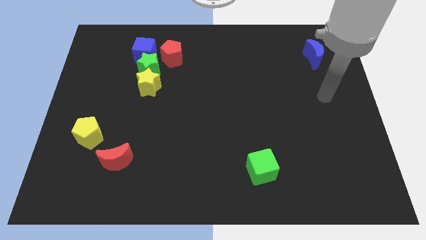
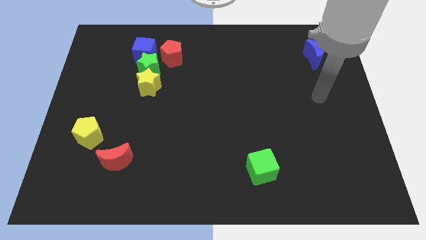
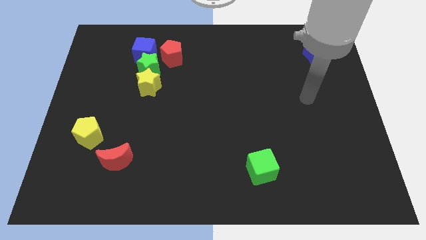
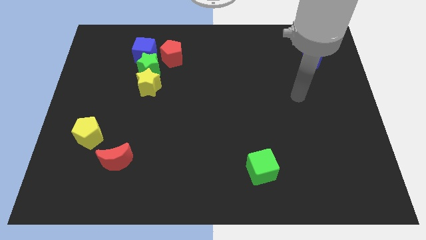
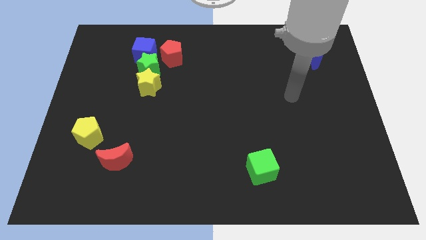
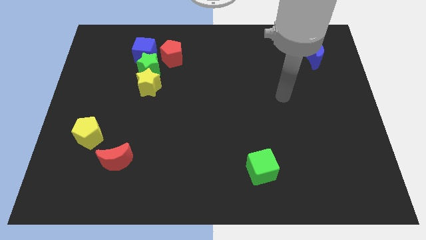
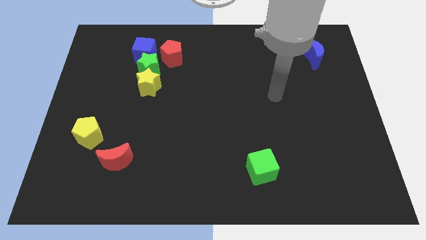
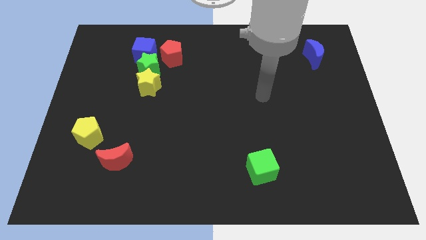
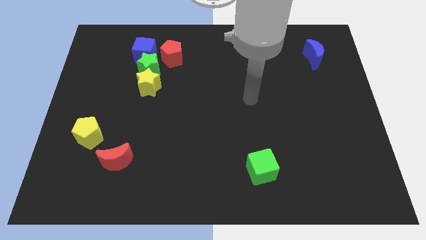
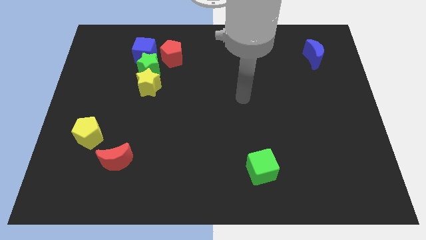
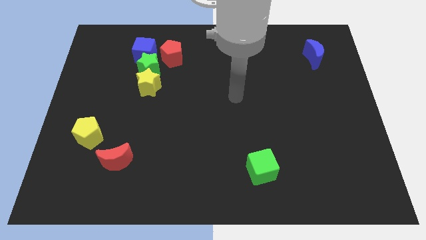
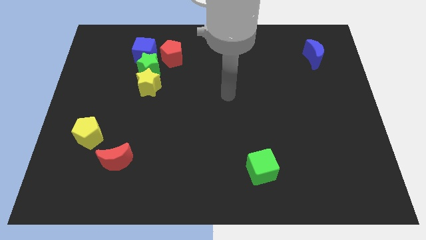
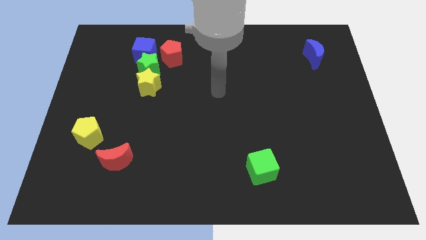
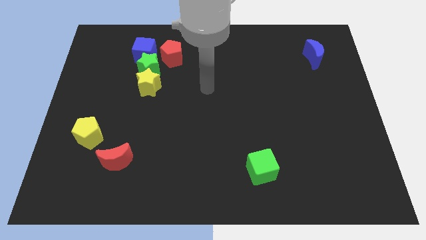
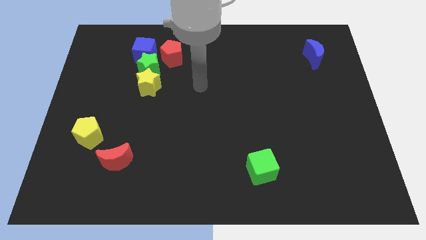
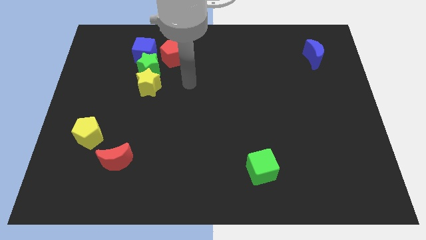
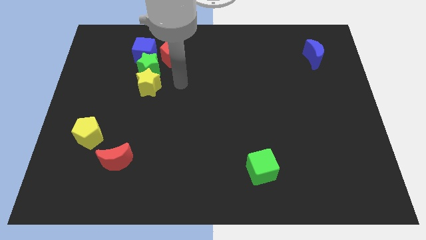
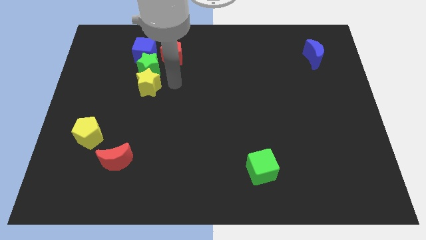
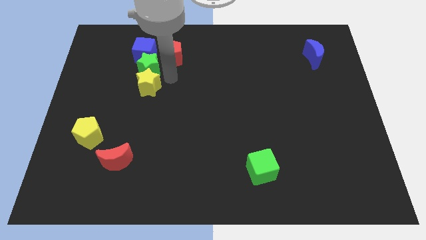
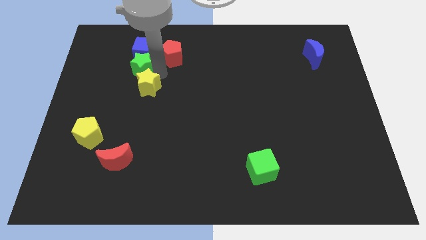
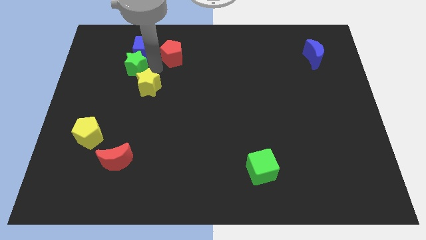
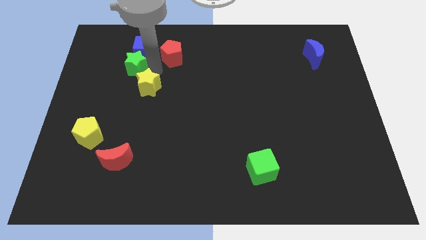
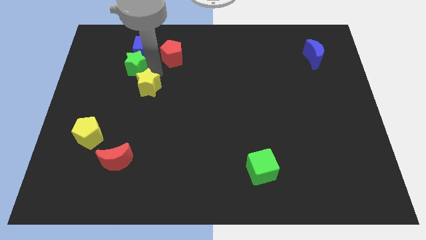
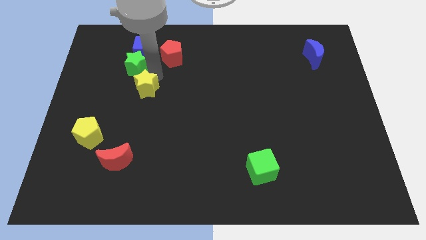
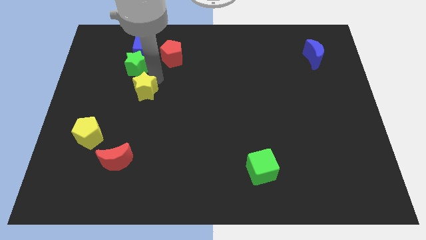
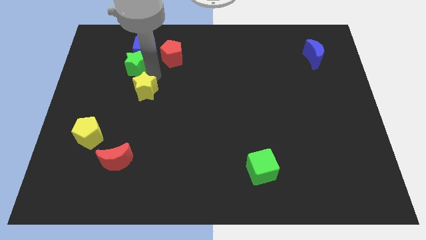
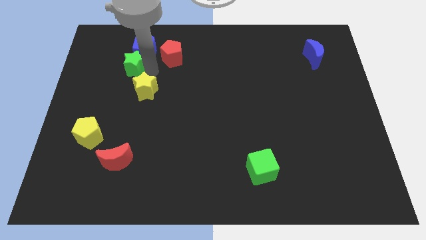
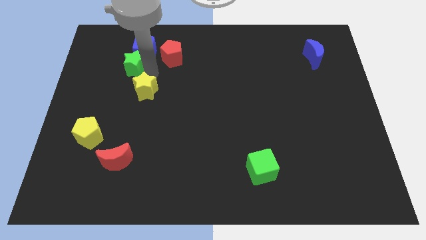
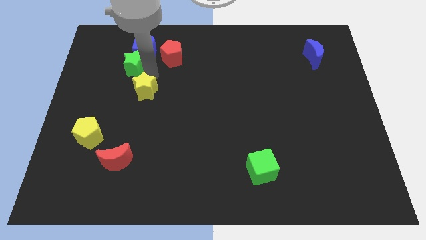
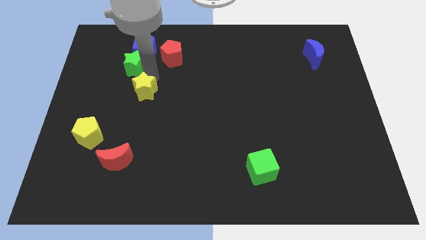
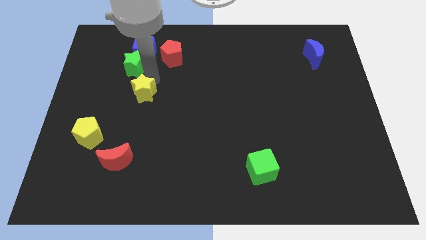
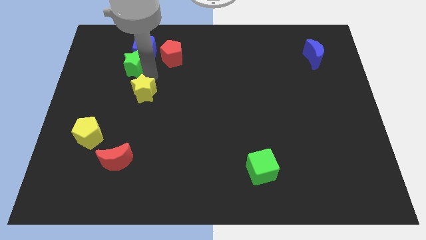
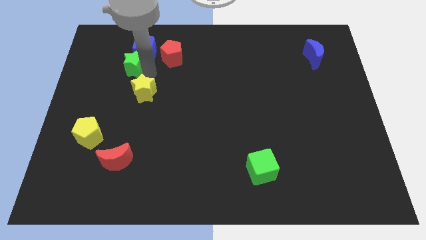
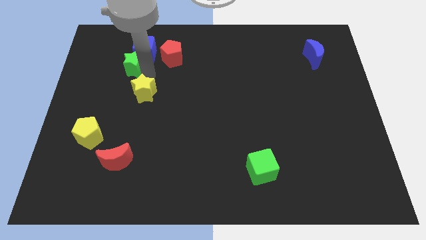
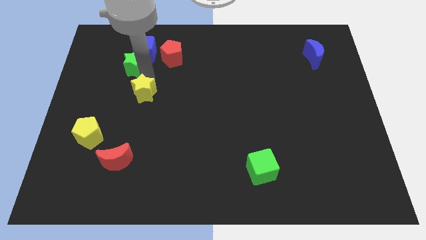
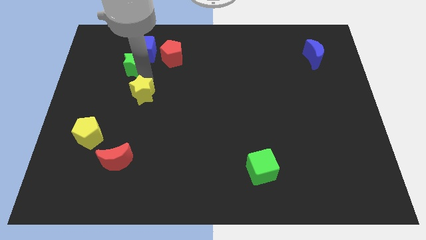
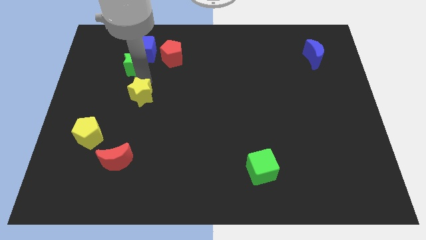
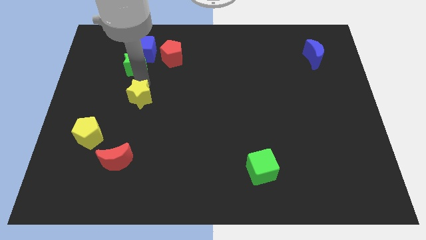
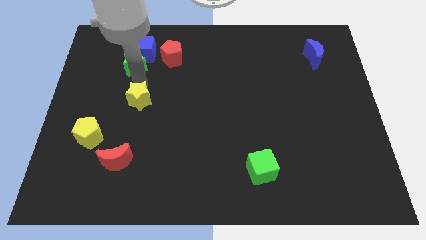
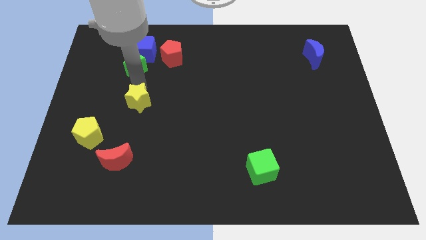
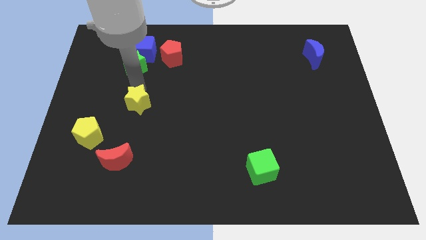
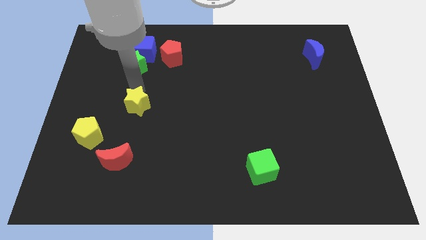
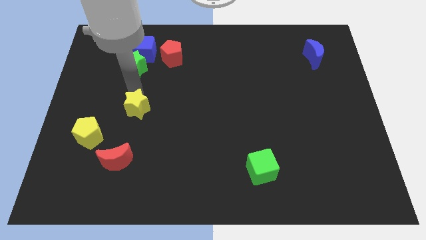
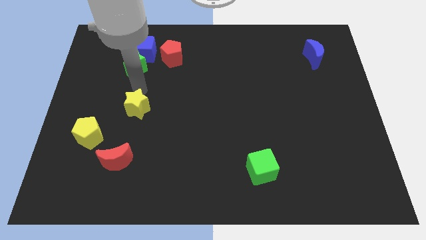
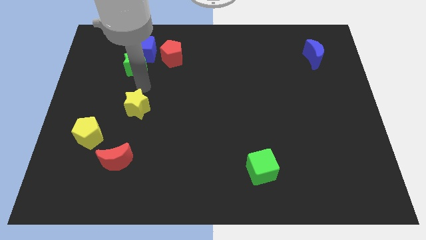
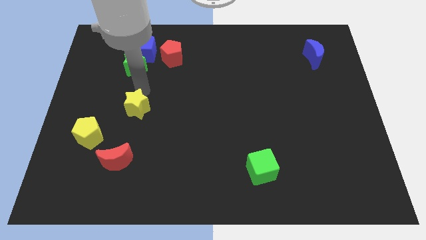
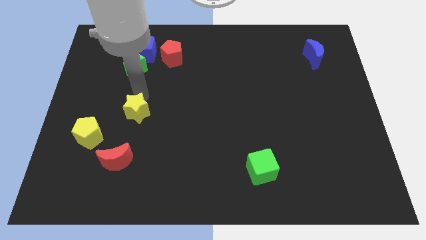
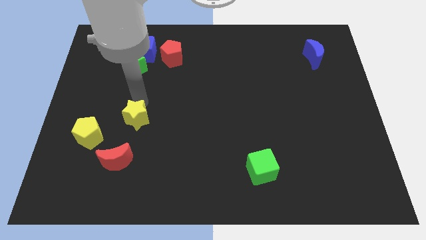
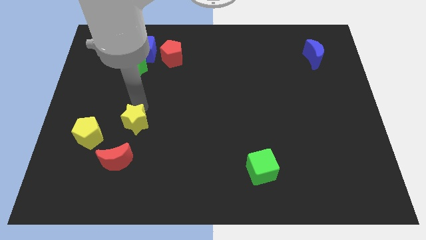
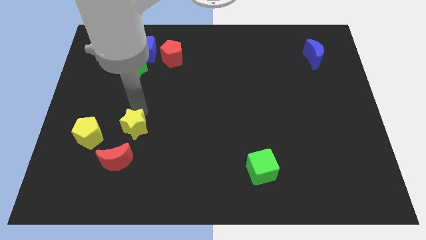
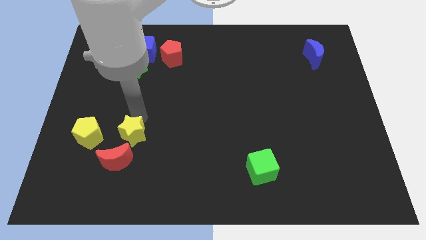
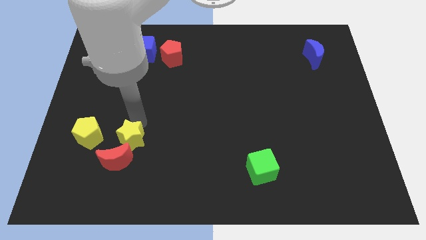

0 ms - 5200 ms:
push the yellow star close to the red moon

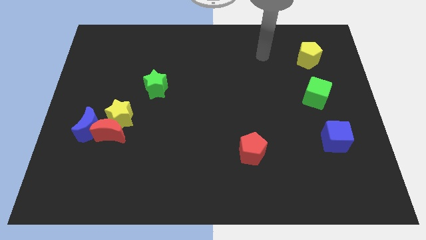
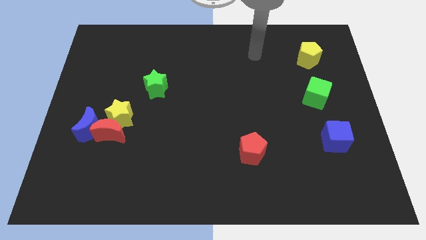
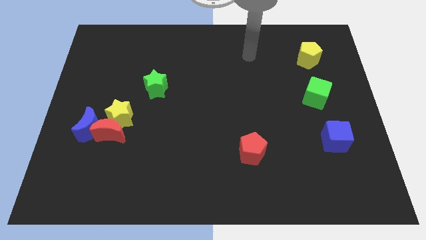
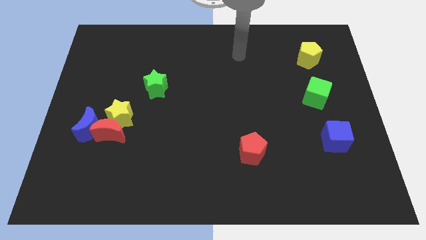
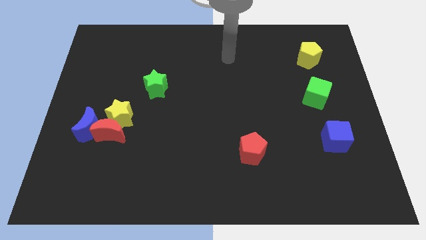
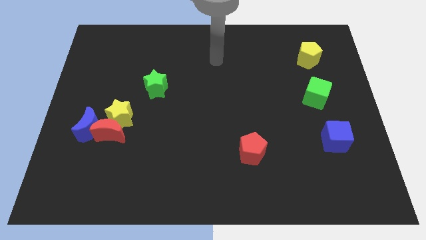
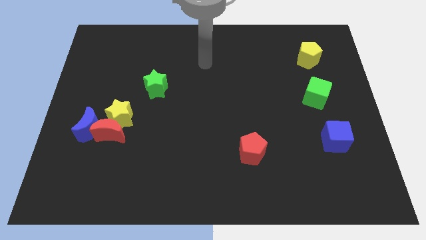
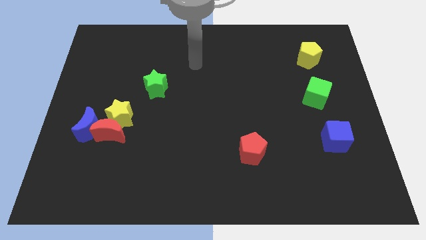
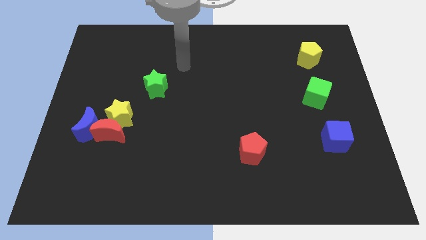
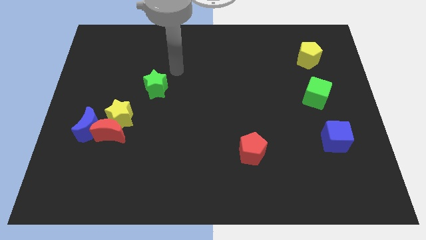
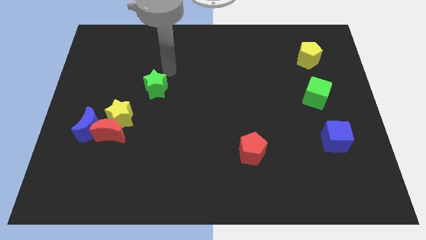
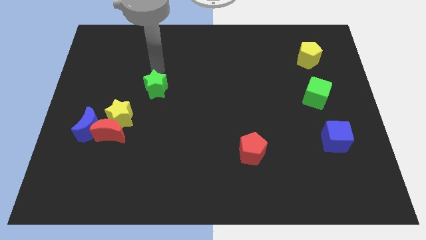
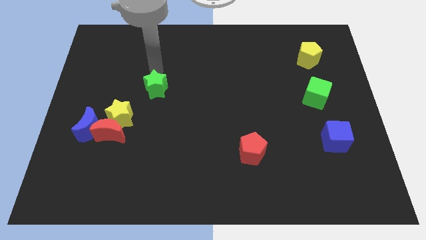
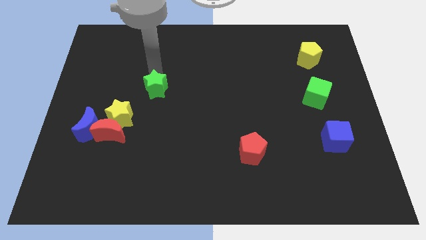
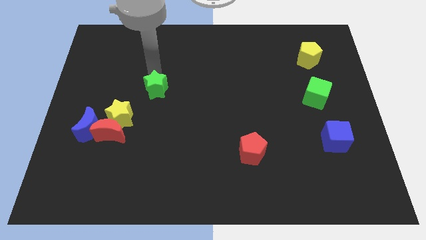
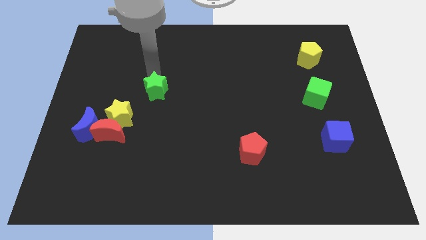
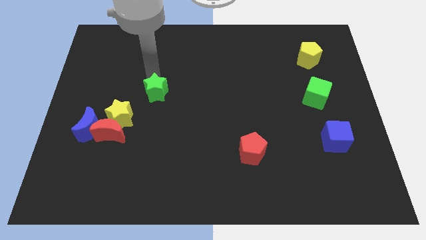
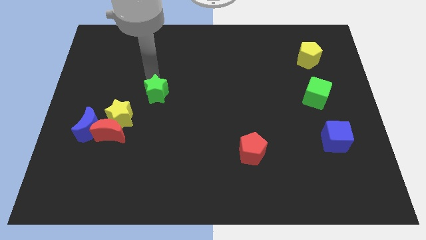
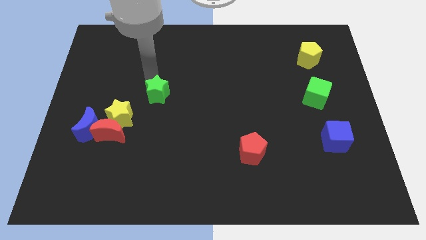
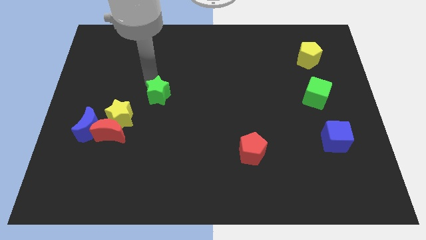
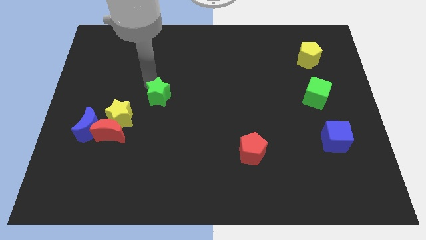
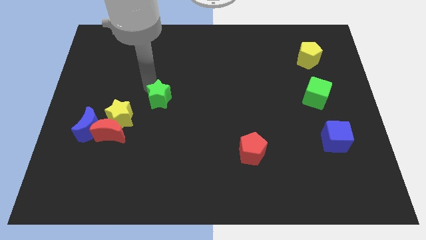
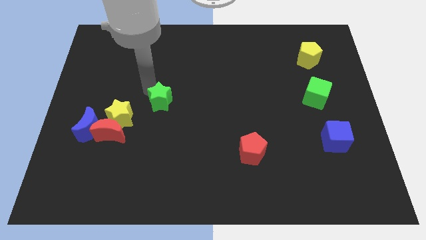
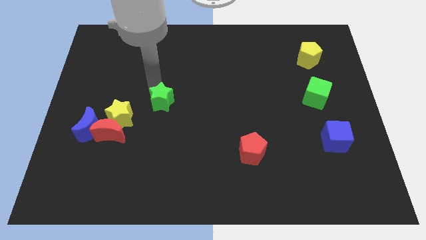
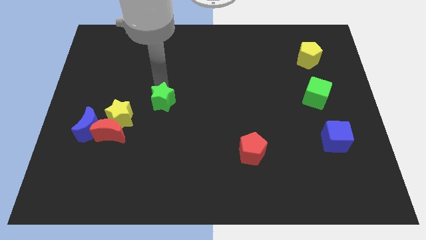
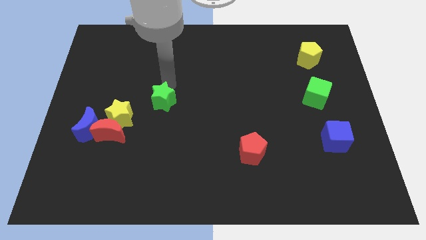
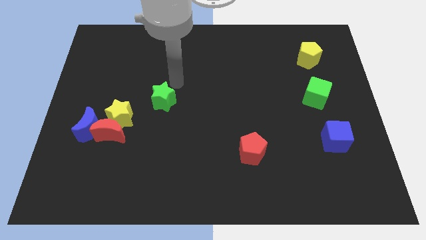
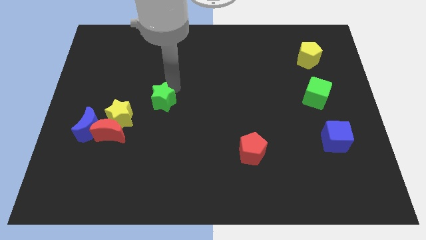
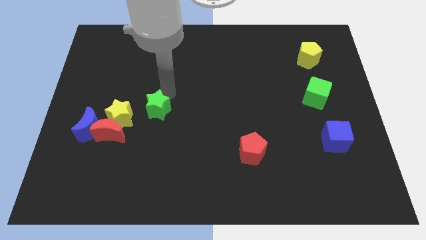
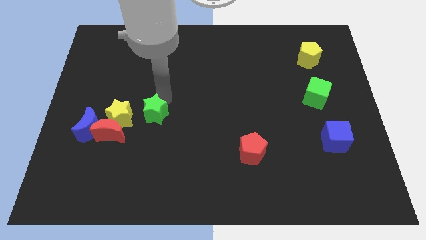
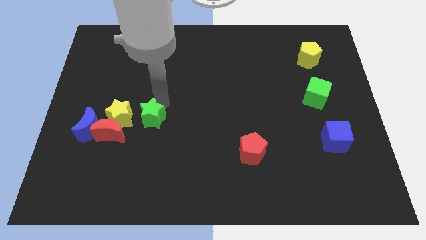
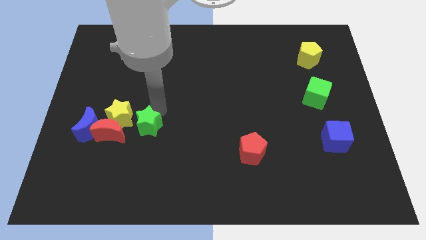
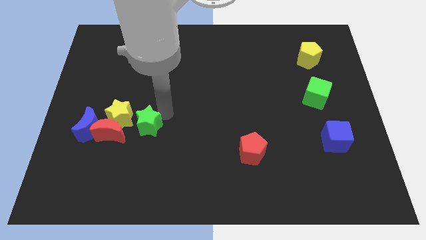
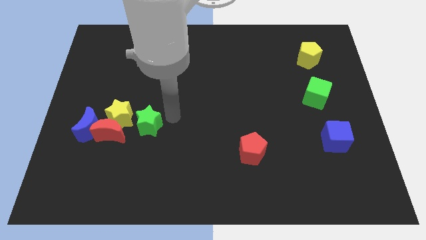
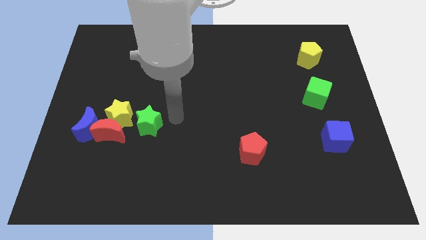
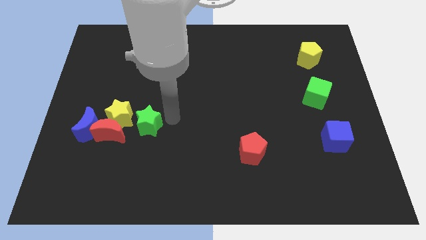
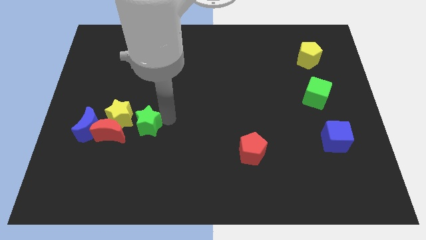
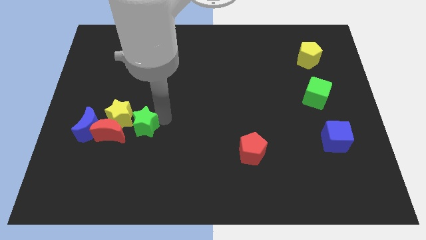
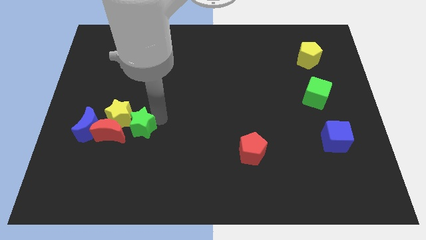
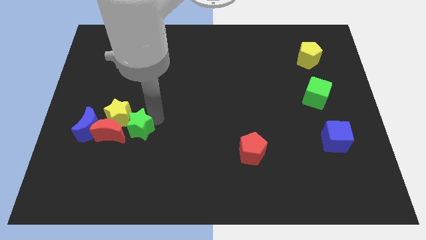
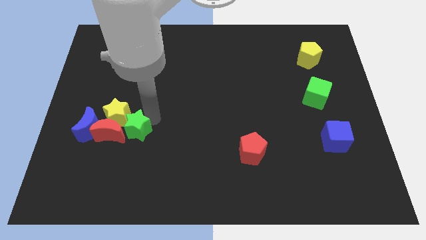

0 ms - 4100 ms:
move the green star next to the red moon
